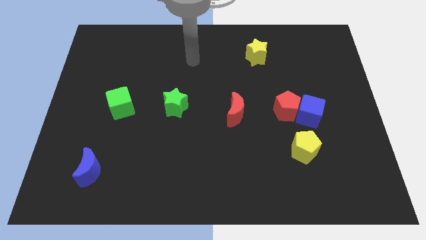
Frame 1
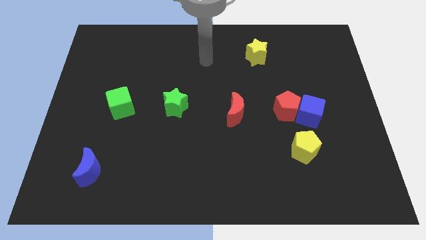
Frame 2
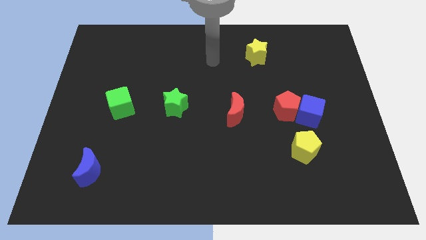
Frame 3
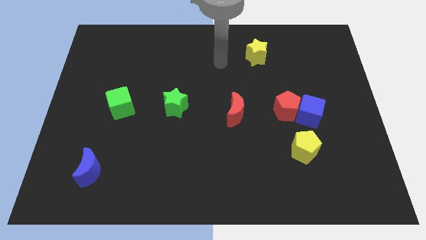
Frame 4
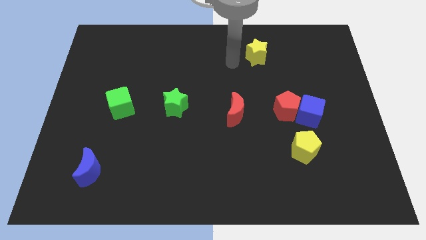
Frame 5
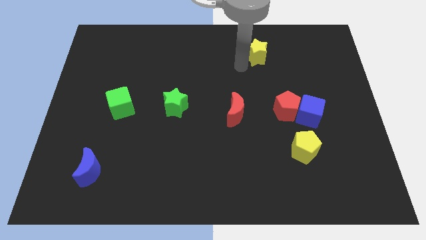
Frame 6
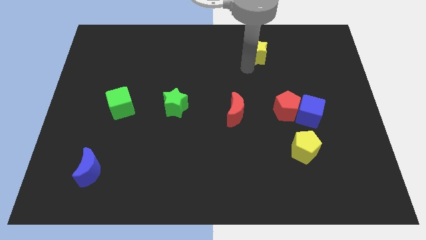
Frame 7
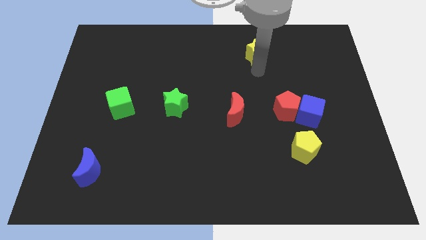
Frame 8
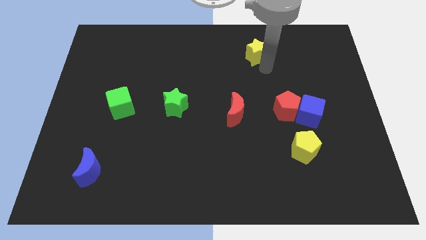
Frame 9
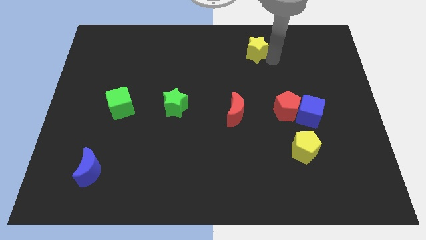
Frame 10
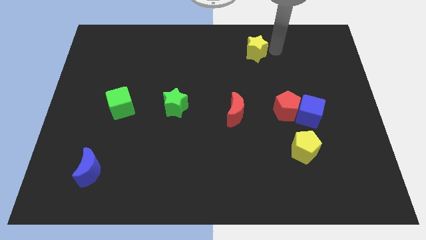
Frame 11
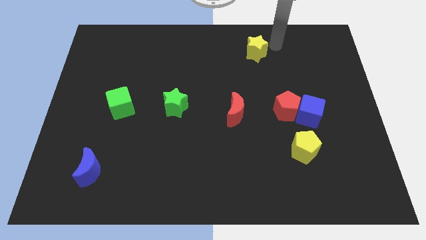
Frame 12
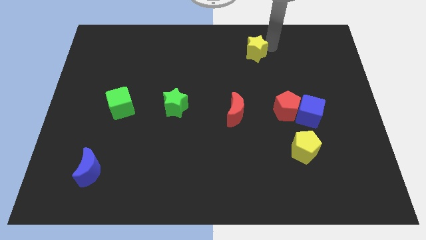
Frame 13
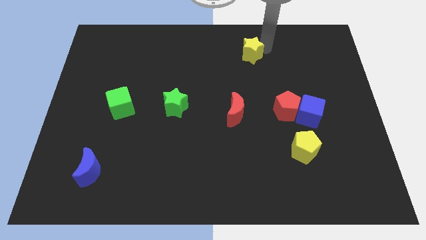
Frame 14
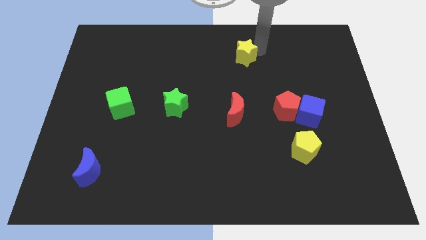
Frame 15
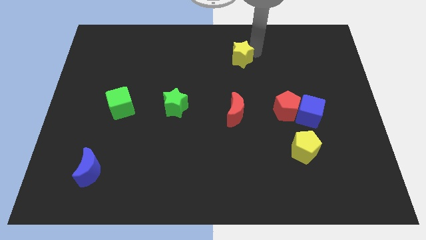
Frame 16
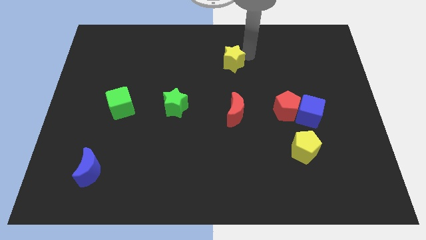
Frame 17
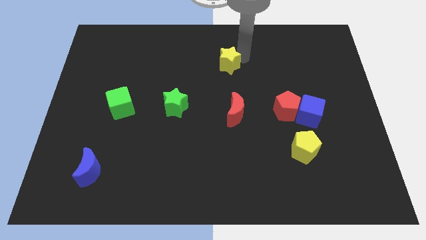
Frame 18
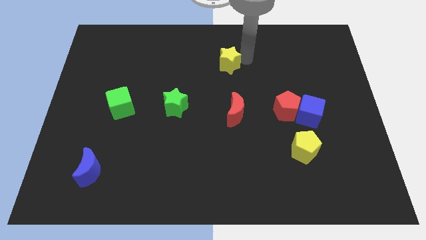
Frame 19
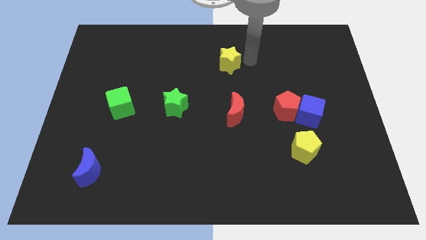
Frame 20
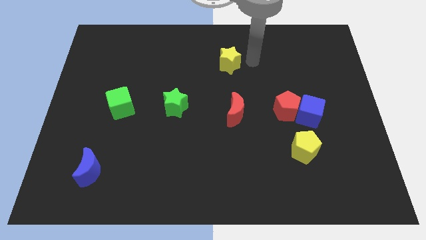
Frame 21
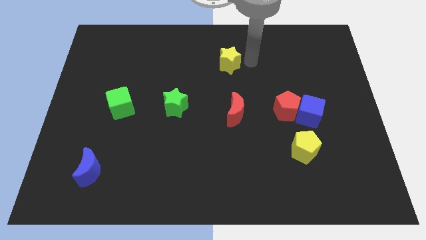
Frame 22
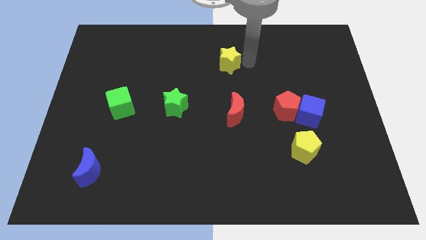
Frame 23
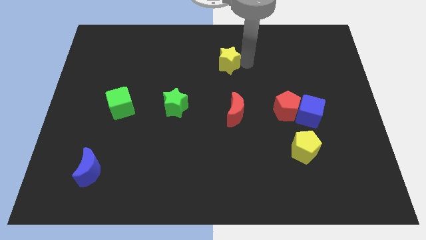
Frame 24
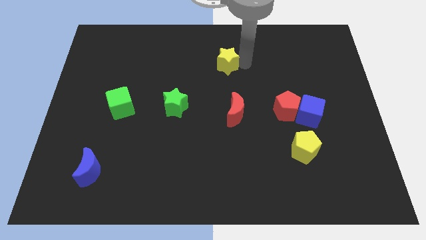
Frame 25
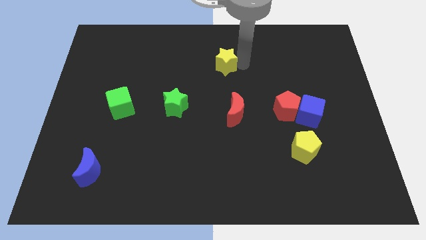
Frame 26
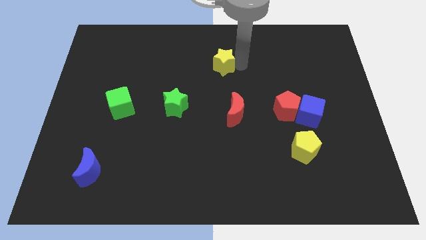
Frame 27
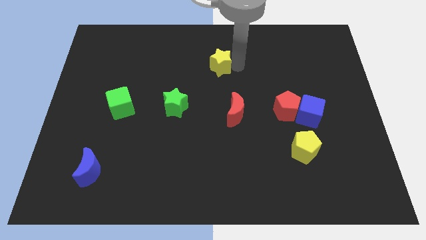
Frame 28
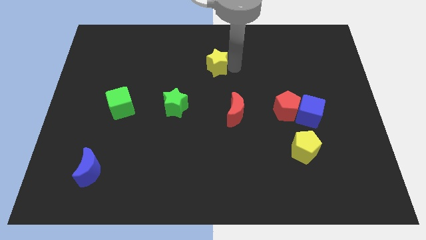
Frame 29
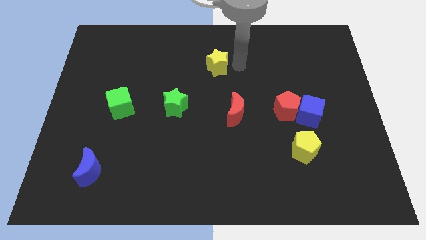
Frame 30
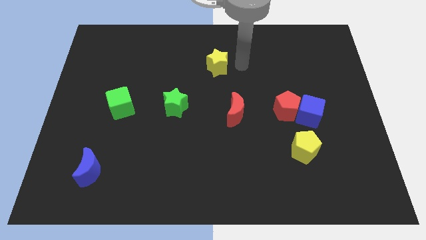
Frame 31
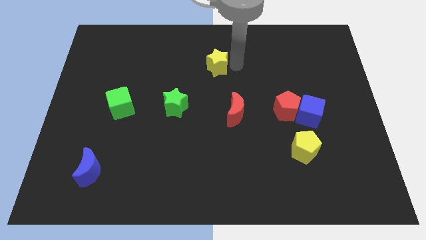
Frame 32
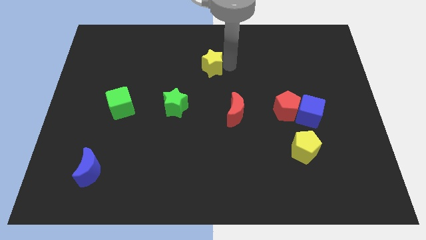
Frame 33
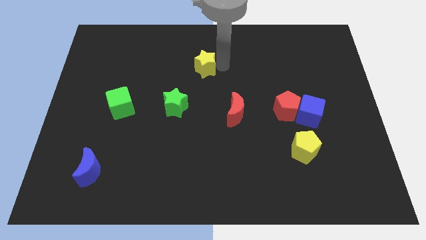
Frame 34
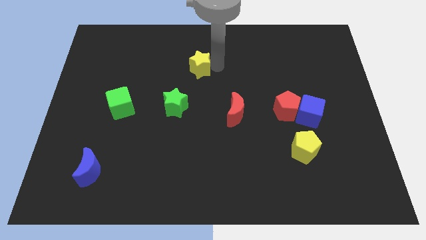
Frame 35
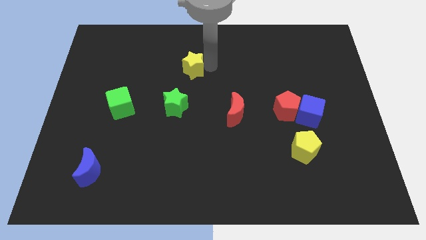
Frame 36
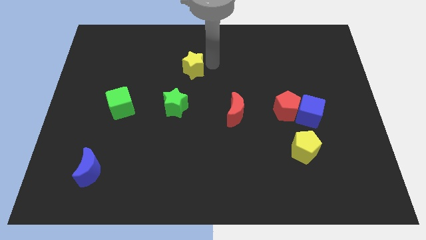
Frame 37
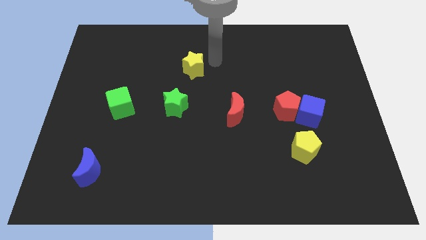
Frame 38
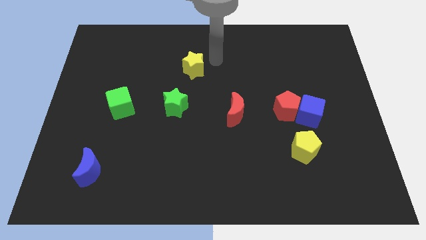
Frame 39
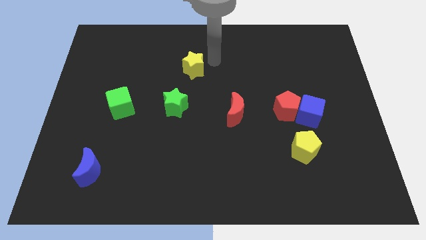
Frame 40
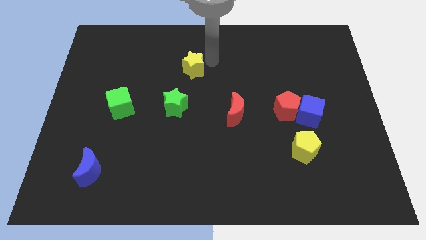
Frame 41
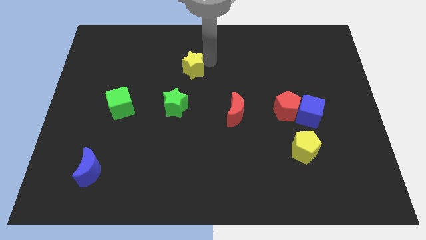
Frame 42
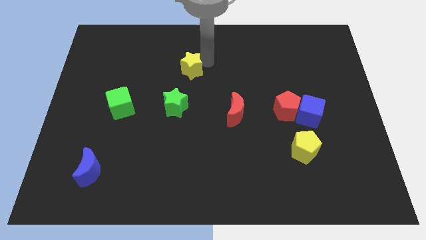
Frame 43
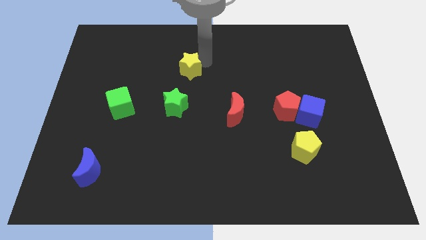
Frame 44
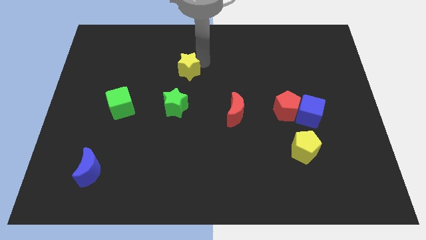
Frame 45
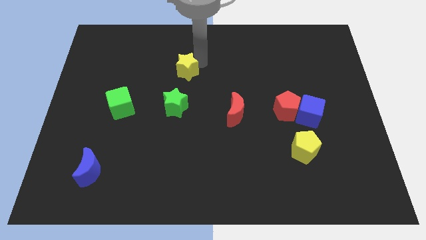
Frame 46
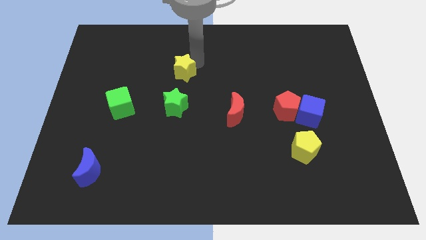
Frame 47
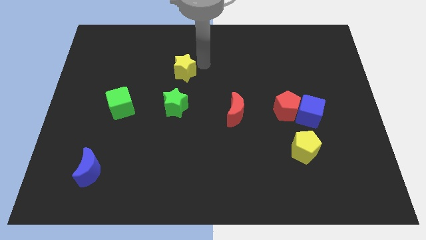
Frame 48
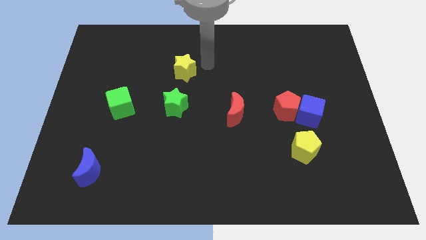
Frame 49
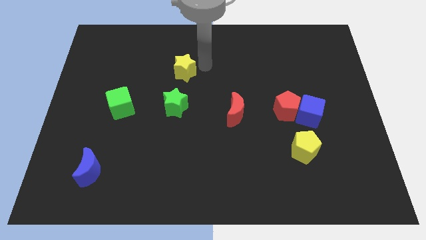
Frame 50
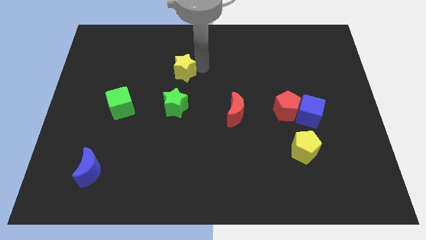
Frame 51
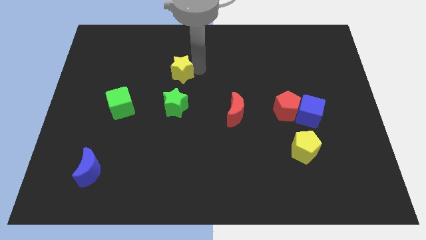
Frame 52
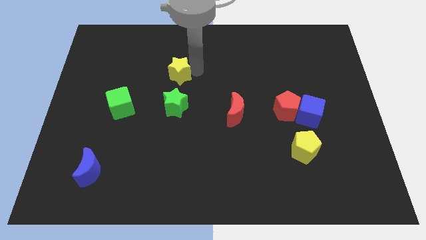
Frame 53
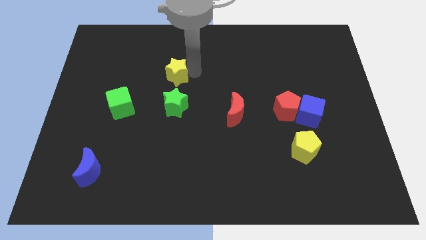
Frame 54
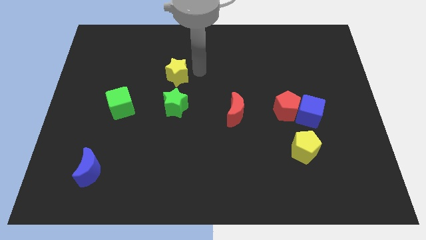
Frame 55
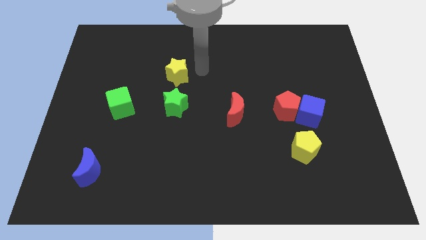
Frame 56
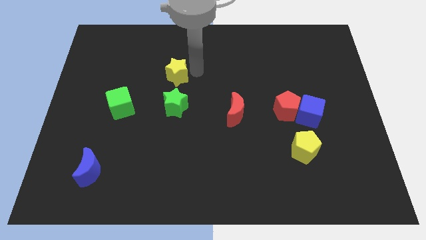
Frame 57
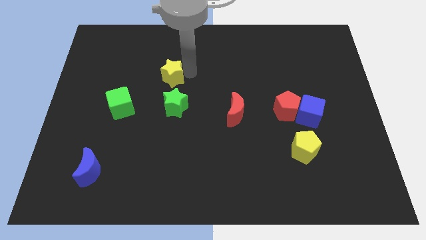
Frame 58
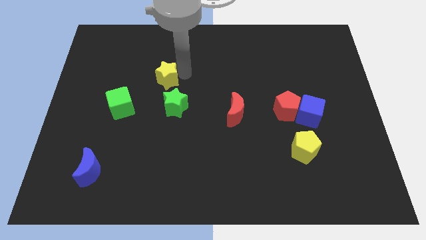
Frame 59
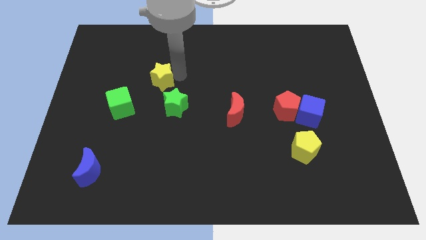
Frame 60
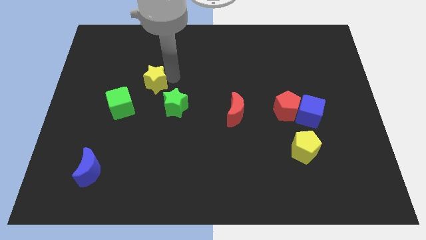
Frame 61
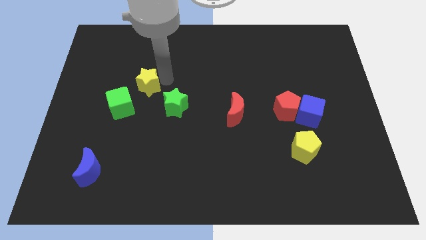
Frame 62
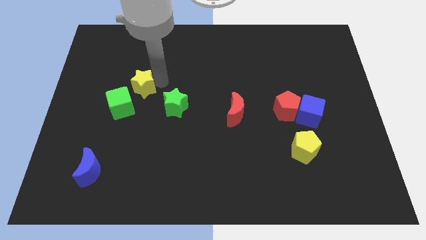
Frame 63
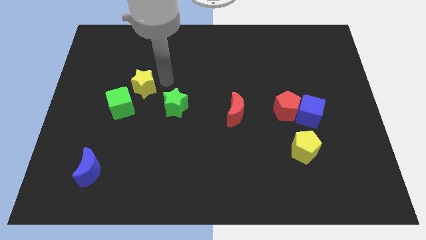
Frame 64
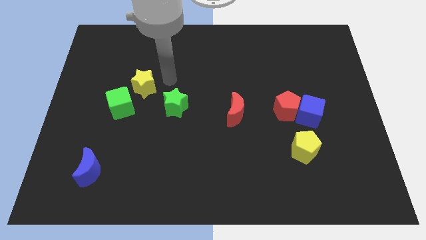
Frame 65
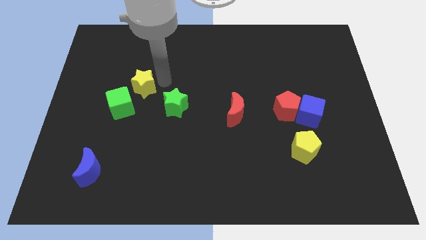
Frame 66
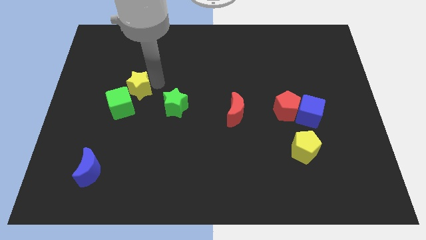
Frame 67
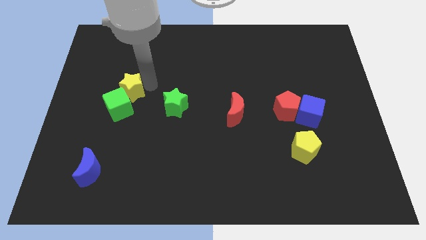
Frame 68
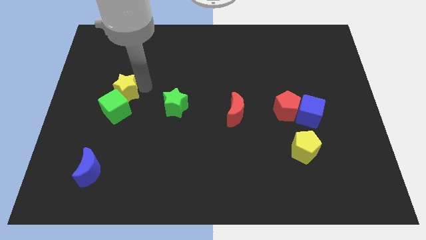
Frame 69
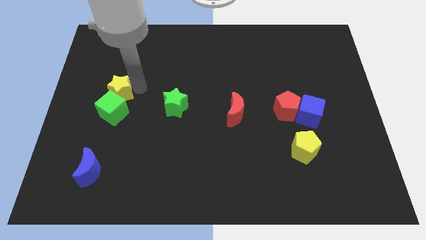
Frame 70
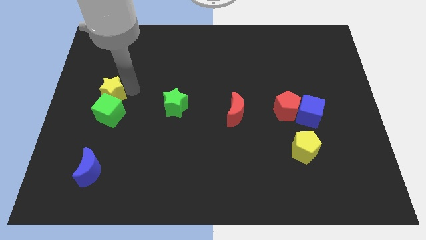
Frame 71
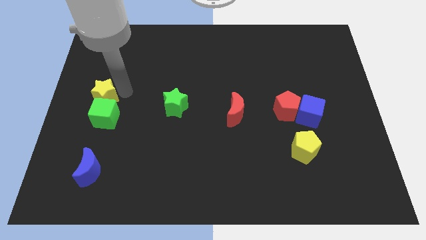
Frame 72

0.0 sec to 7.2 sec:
move the yellow star to the left side
